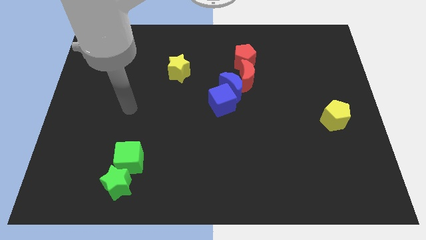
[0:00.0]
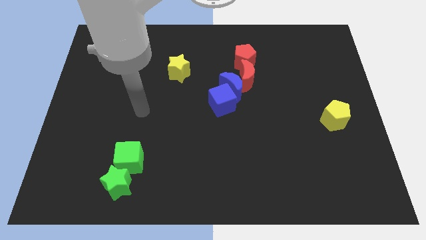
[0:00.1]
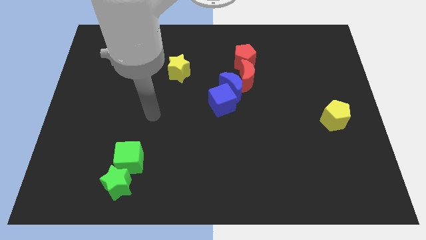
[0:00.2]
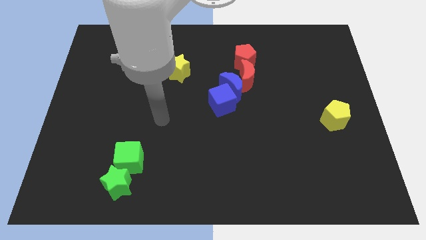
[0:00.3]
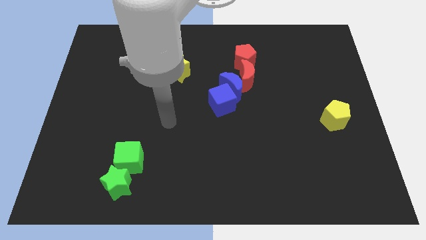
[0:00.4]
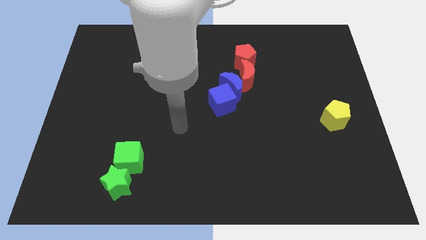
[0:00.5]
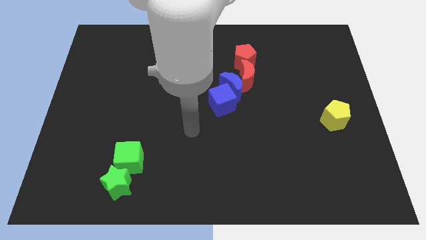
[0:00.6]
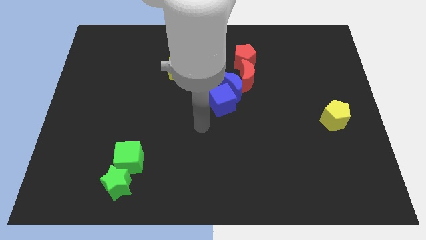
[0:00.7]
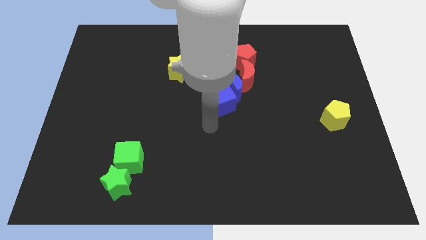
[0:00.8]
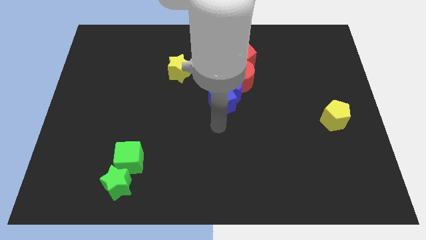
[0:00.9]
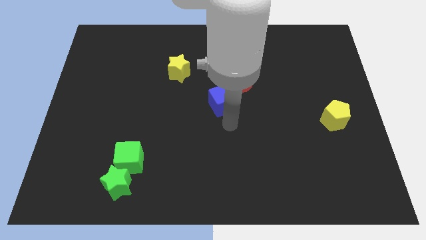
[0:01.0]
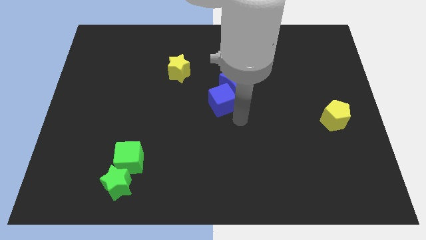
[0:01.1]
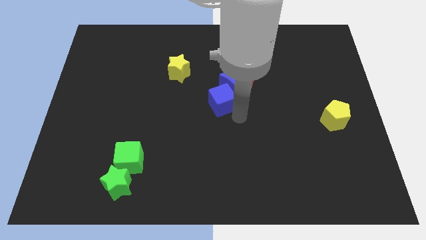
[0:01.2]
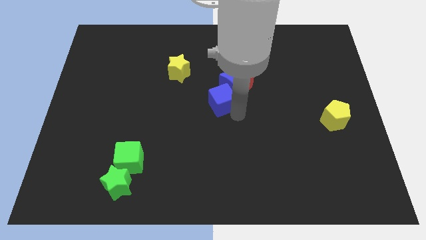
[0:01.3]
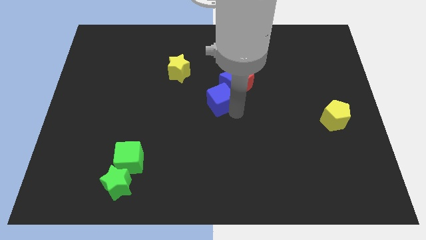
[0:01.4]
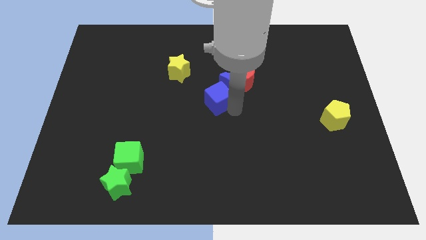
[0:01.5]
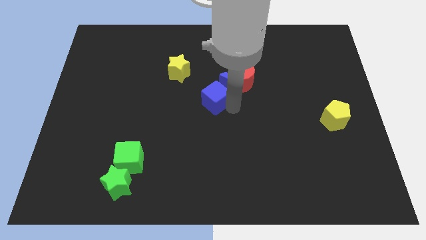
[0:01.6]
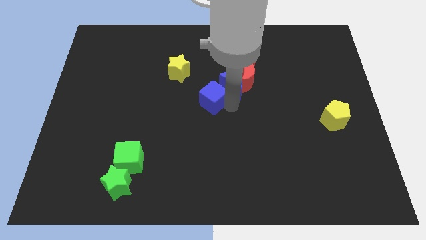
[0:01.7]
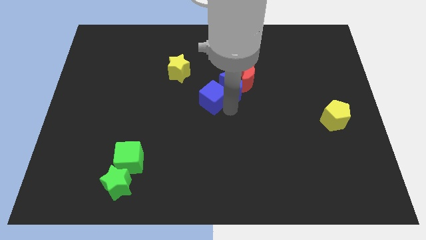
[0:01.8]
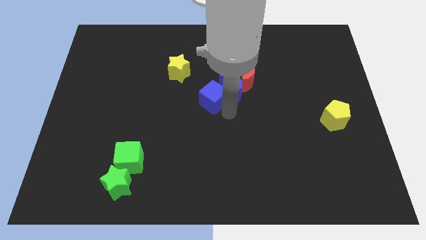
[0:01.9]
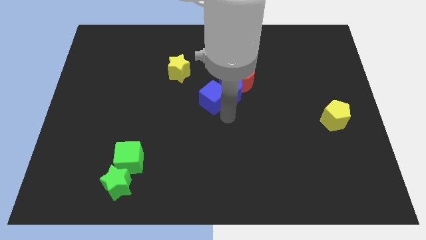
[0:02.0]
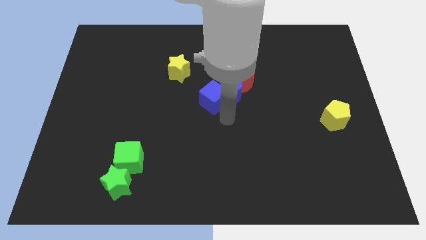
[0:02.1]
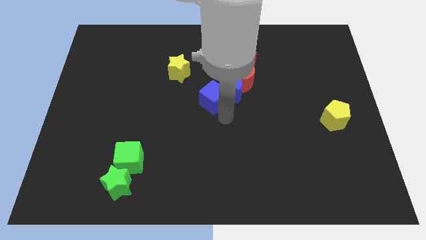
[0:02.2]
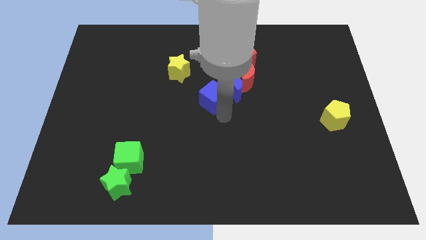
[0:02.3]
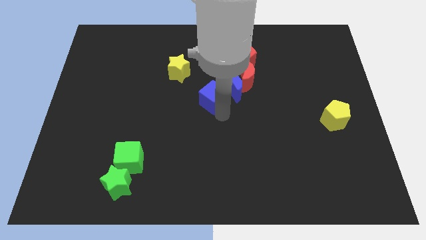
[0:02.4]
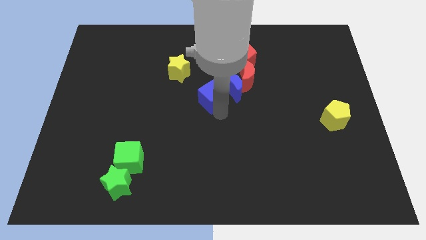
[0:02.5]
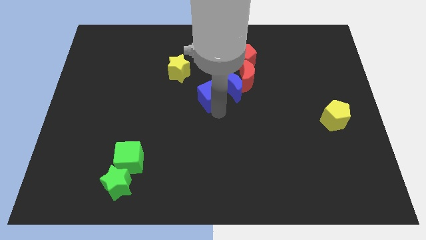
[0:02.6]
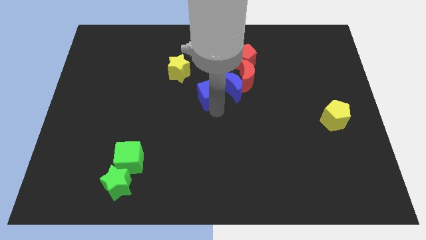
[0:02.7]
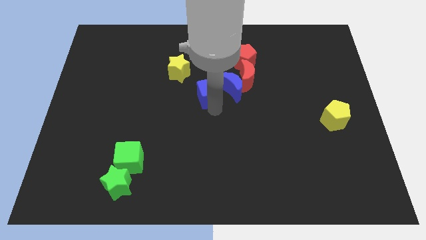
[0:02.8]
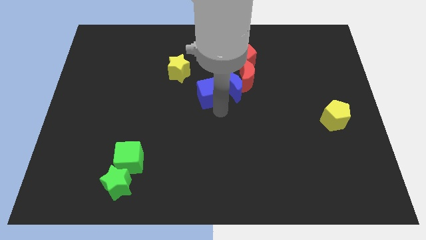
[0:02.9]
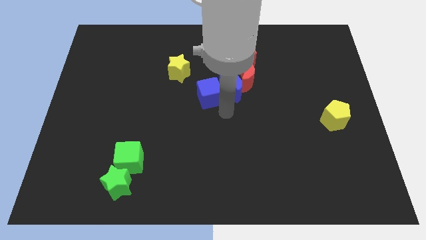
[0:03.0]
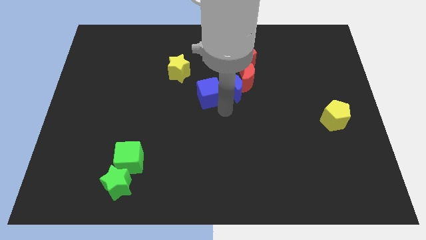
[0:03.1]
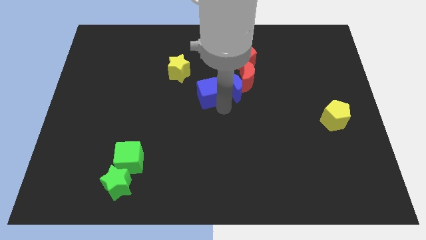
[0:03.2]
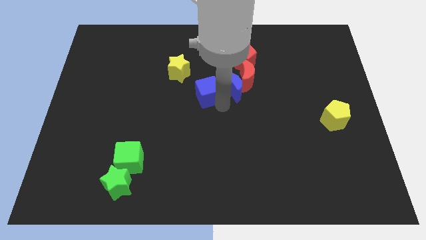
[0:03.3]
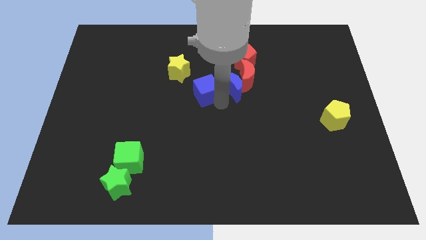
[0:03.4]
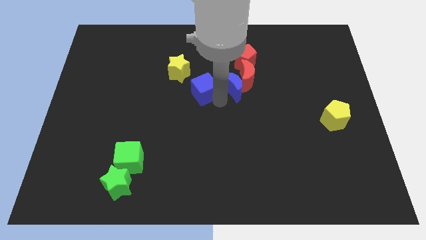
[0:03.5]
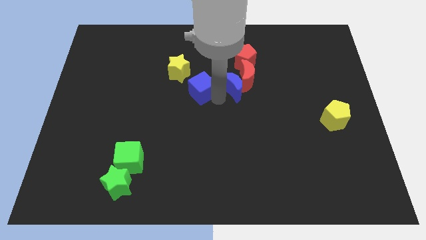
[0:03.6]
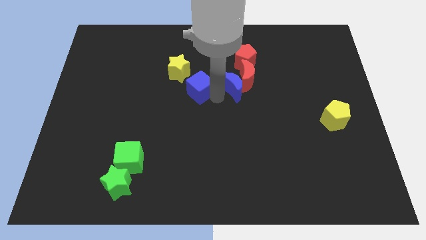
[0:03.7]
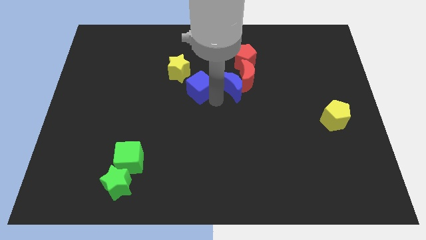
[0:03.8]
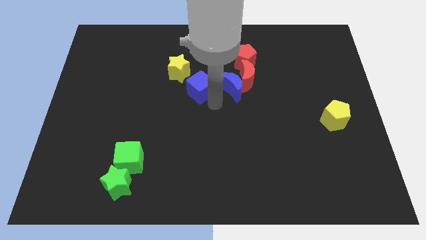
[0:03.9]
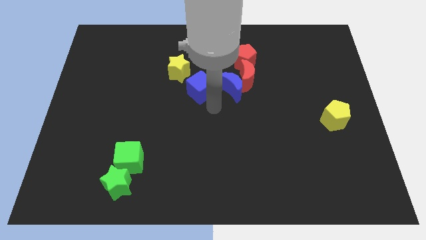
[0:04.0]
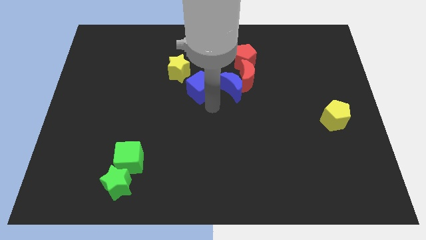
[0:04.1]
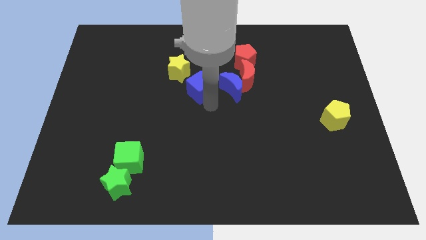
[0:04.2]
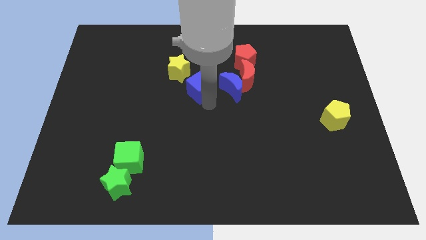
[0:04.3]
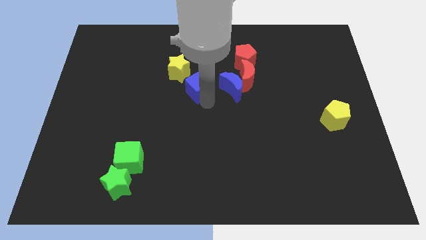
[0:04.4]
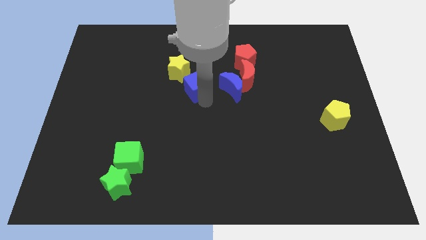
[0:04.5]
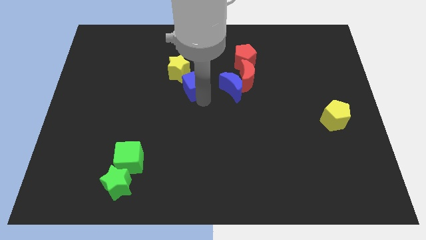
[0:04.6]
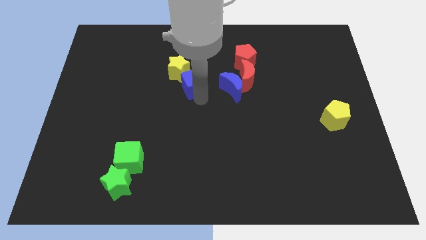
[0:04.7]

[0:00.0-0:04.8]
put the blue cube next to the yellow star

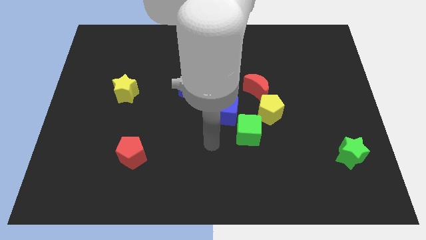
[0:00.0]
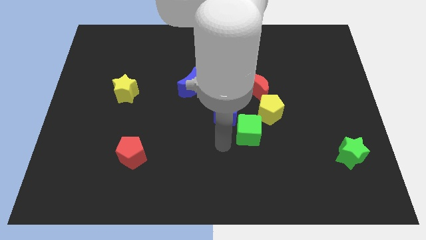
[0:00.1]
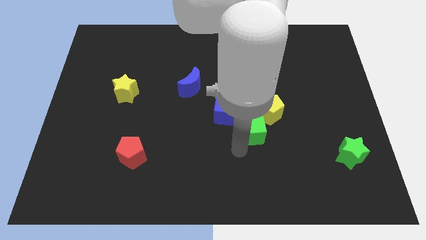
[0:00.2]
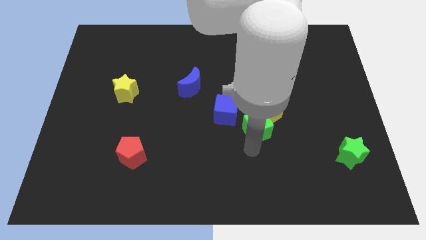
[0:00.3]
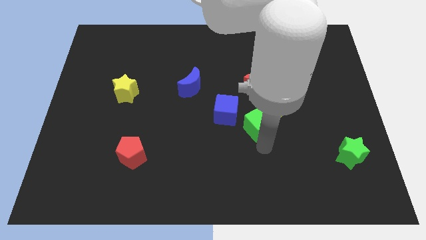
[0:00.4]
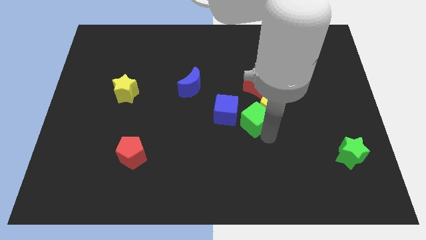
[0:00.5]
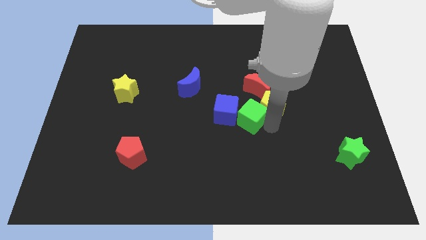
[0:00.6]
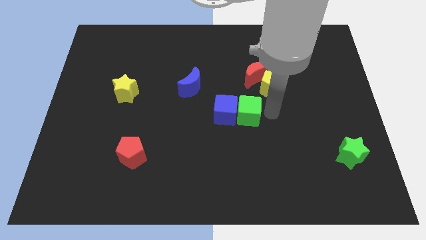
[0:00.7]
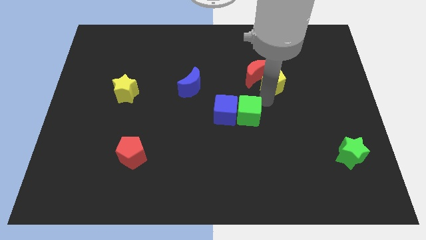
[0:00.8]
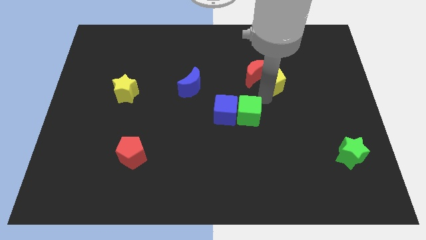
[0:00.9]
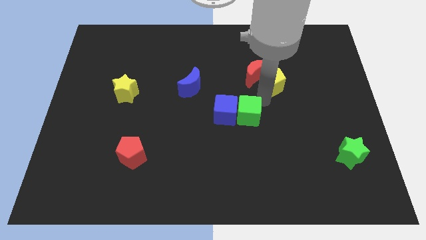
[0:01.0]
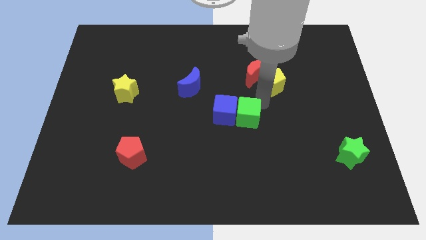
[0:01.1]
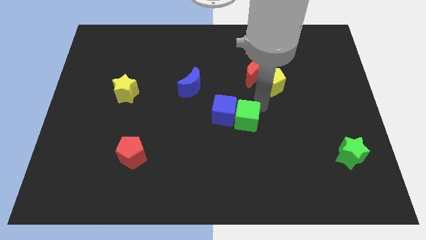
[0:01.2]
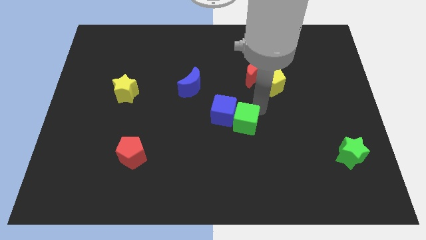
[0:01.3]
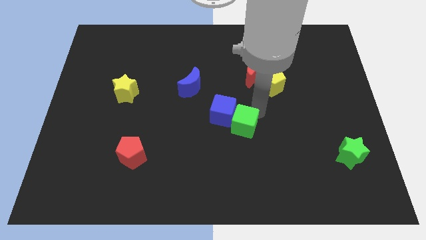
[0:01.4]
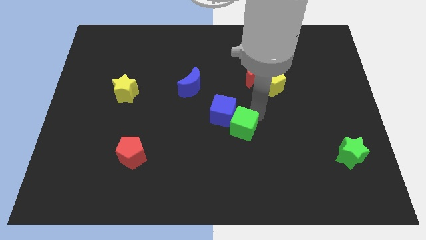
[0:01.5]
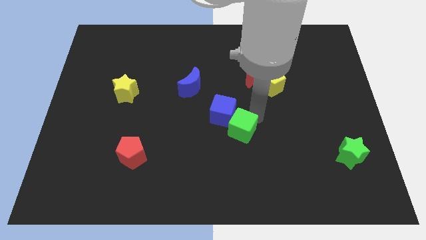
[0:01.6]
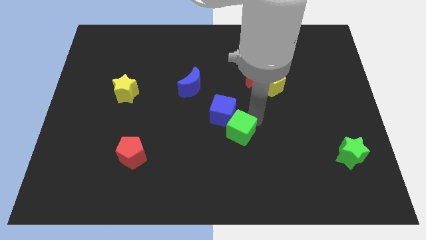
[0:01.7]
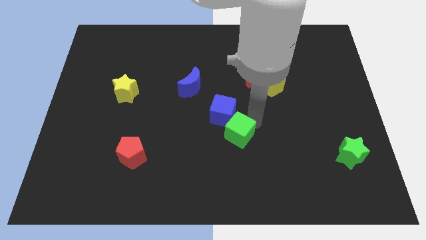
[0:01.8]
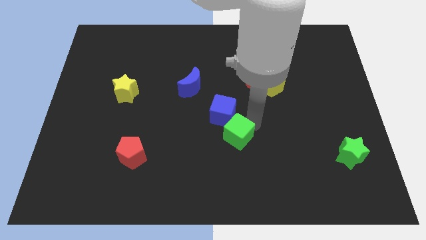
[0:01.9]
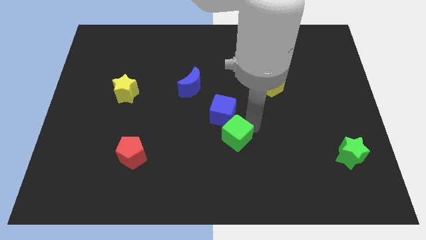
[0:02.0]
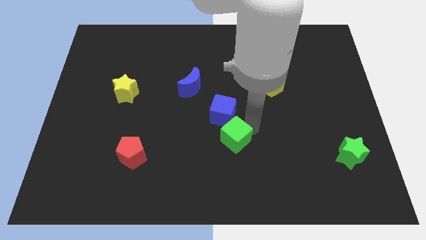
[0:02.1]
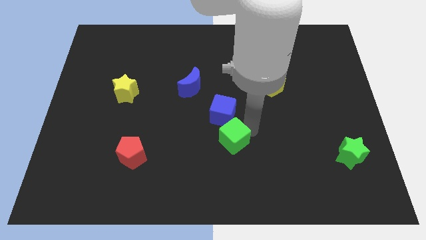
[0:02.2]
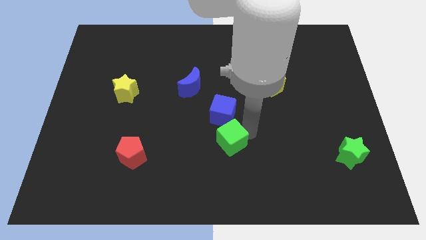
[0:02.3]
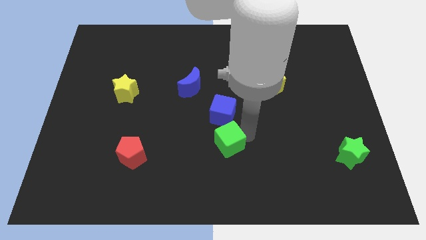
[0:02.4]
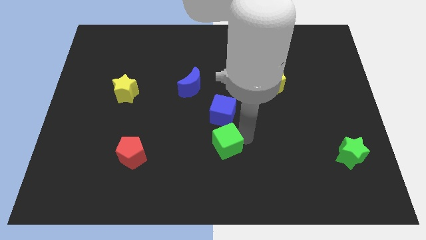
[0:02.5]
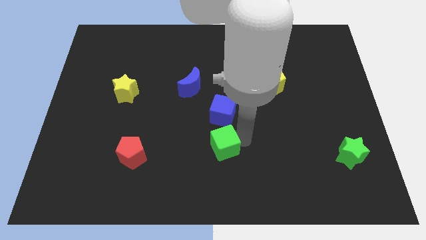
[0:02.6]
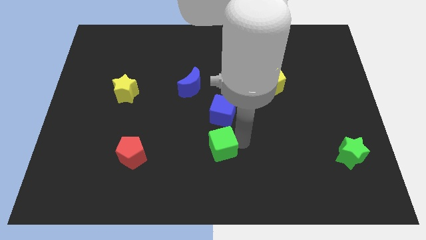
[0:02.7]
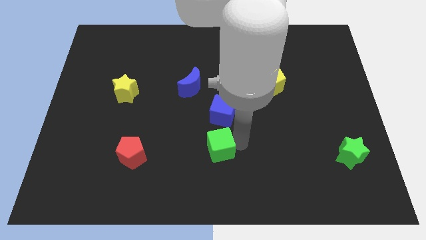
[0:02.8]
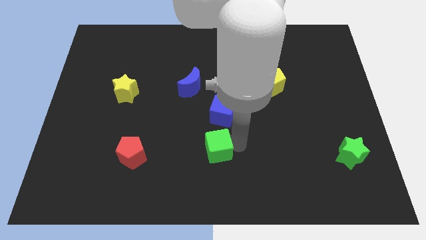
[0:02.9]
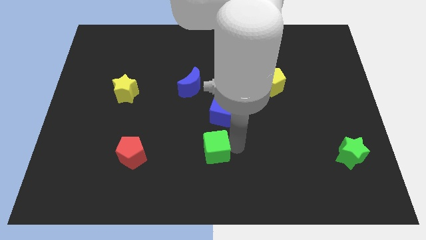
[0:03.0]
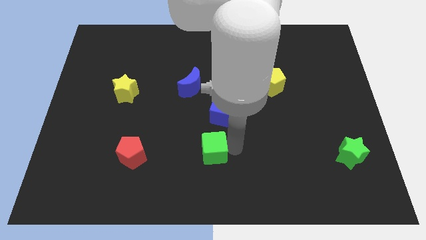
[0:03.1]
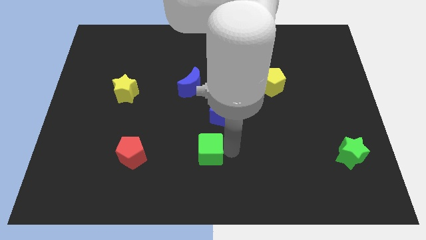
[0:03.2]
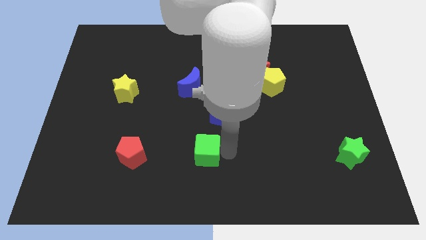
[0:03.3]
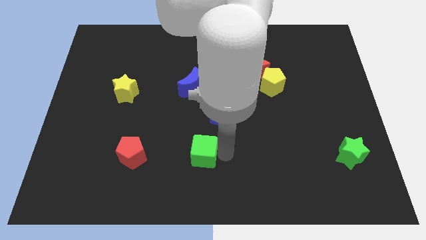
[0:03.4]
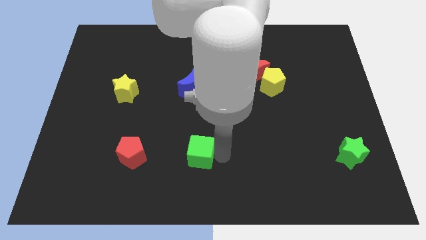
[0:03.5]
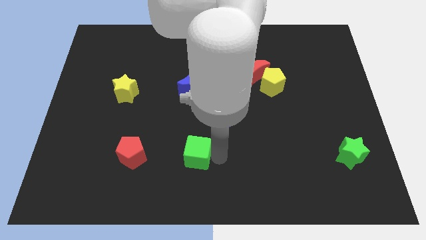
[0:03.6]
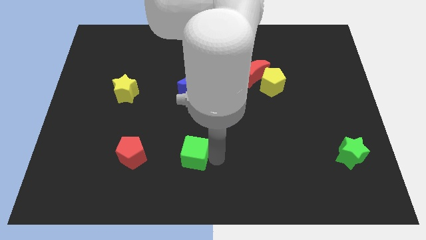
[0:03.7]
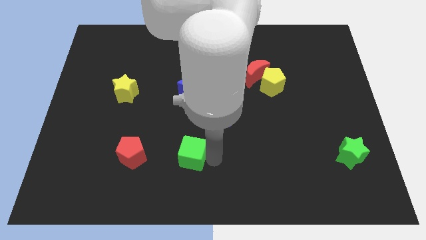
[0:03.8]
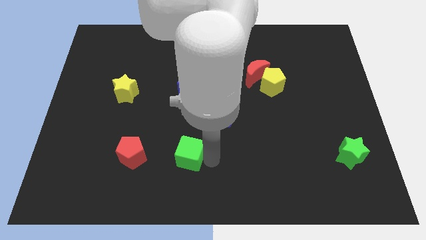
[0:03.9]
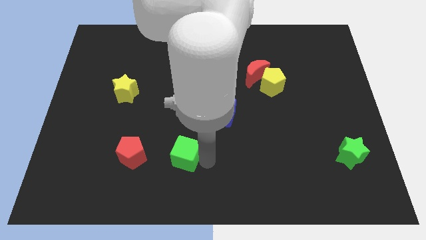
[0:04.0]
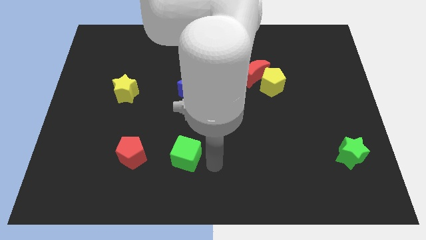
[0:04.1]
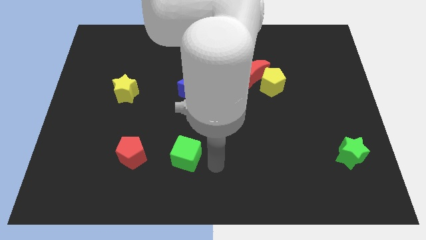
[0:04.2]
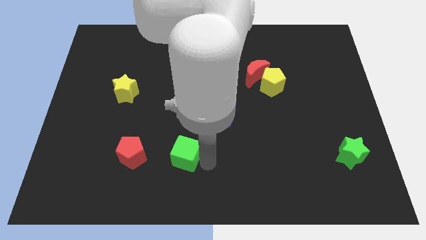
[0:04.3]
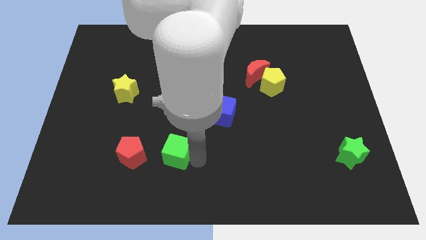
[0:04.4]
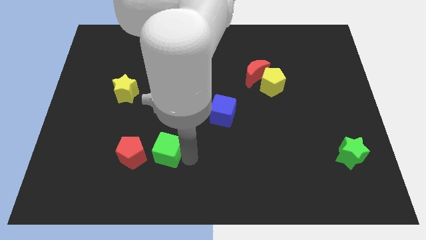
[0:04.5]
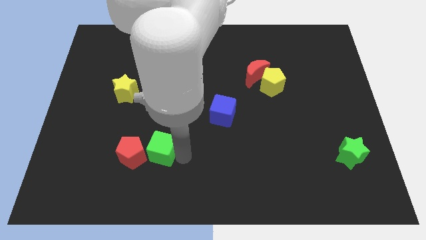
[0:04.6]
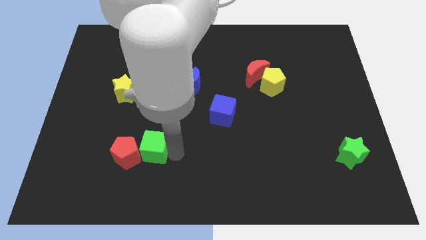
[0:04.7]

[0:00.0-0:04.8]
move the green cube towards the red pentagon
